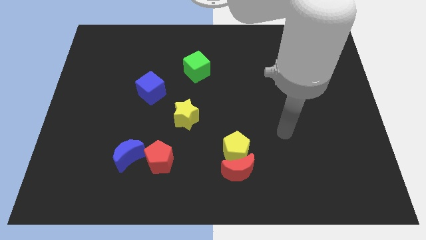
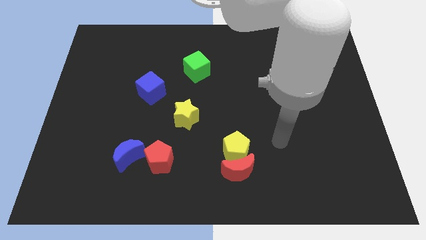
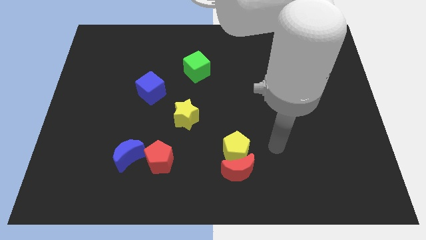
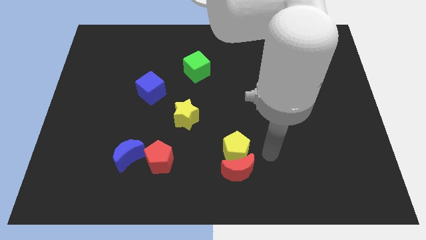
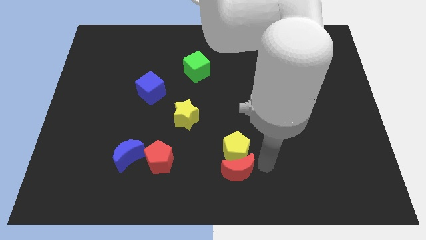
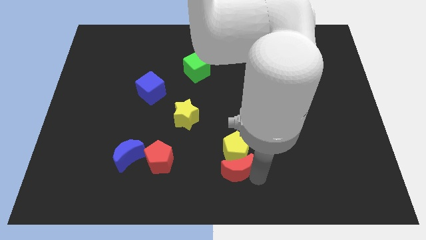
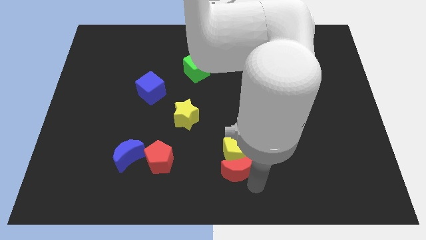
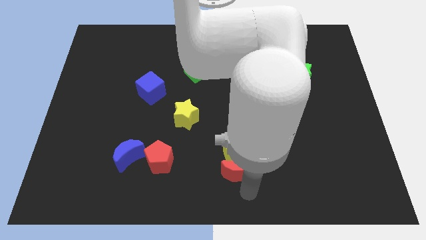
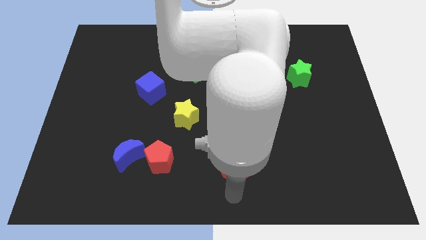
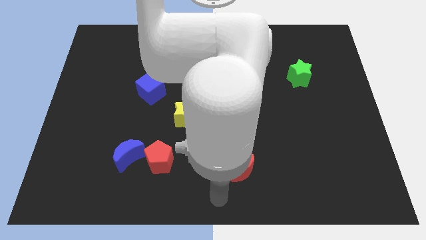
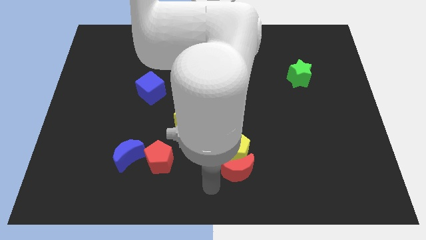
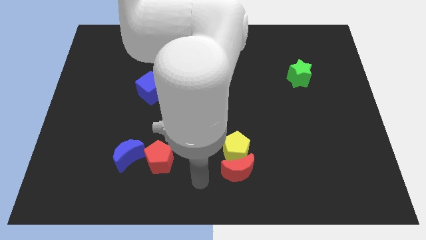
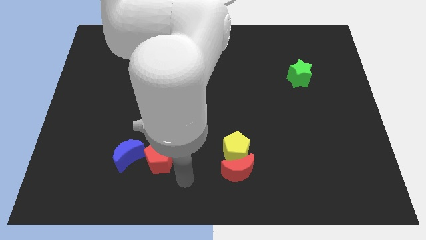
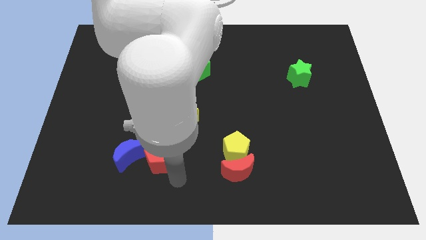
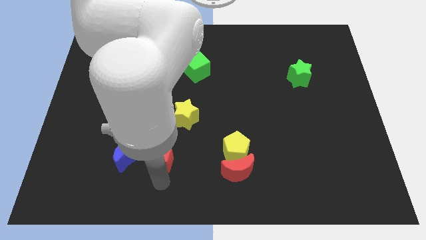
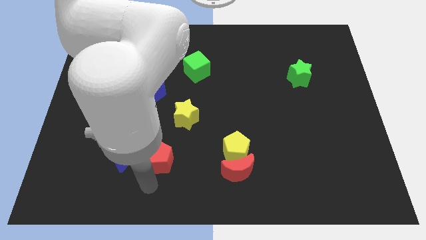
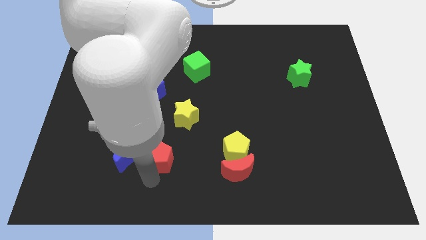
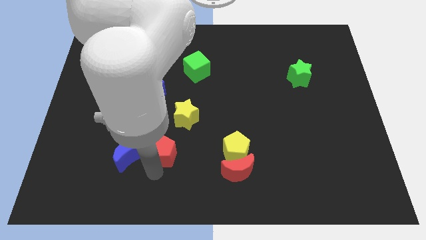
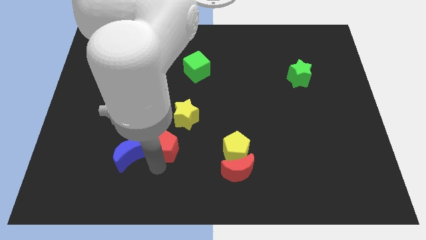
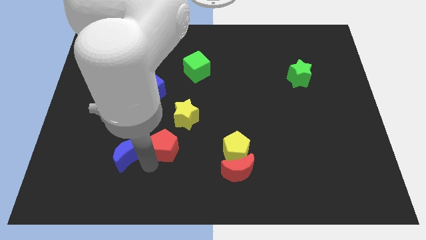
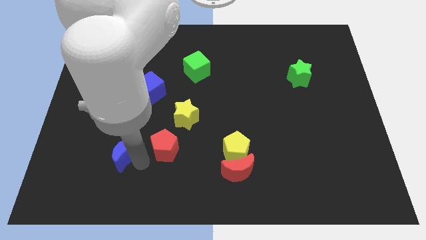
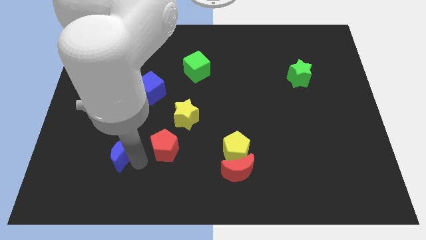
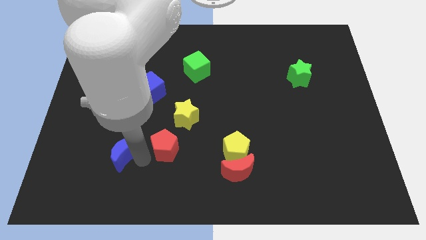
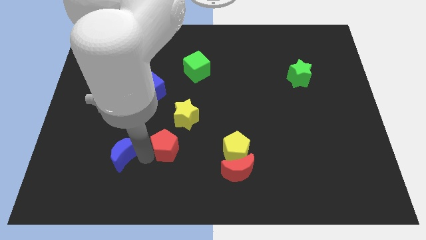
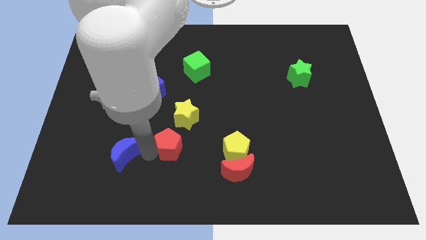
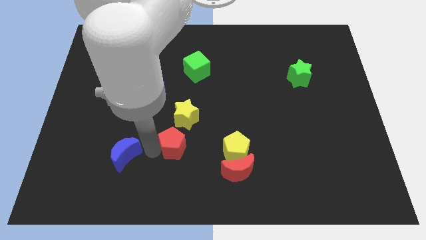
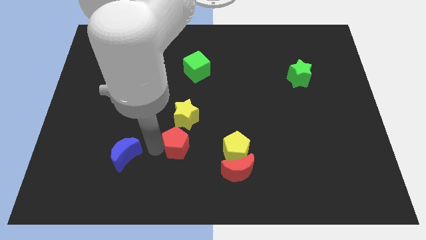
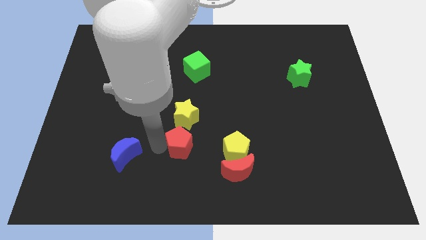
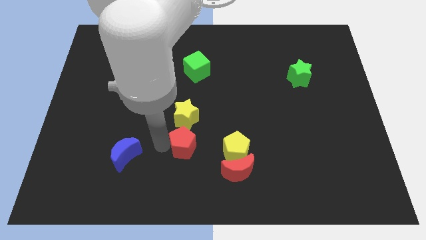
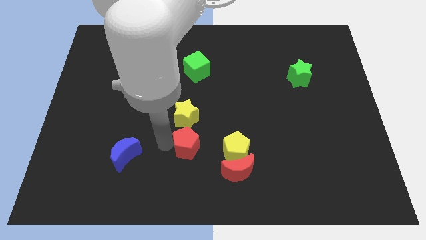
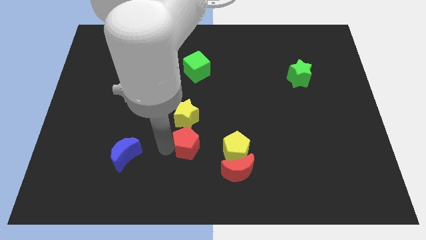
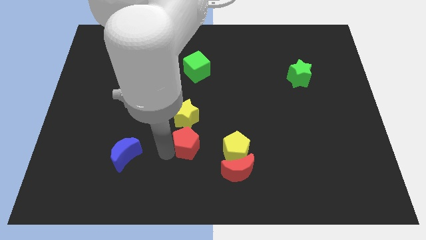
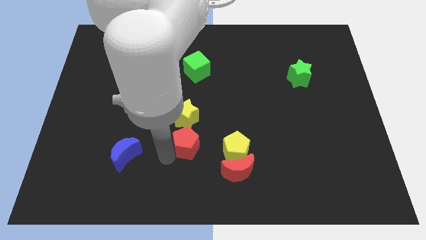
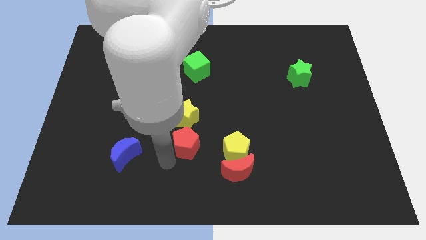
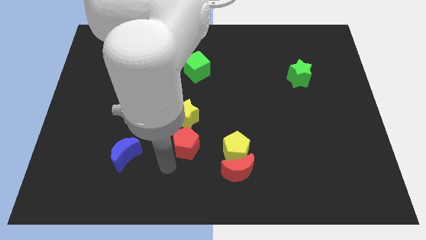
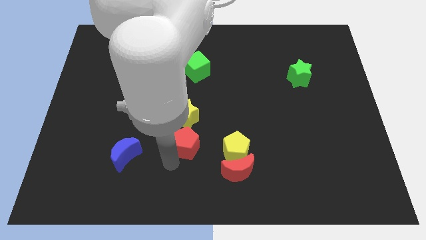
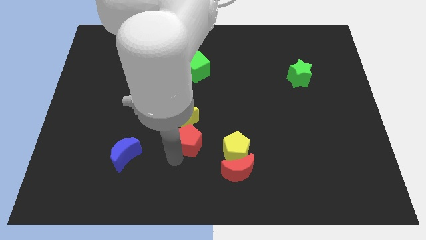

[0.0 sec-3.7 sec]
push the red pentagon up and then to the right a little

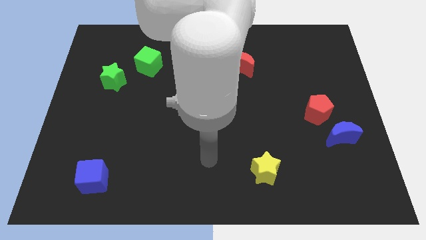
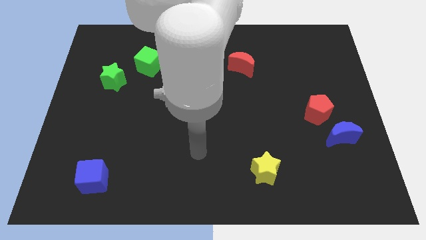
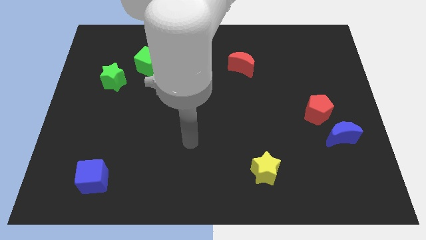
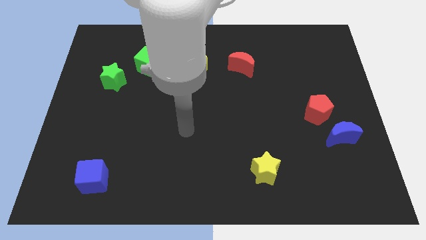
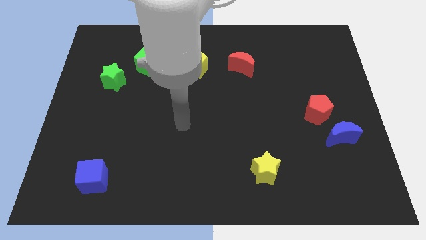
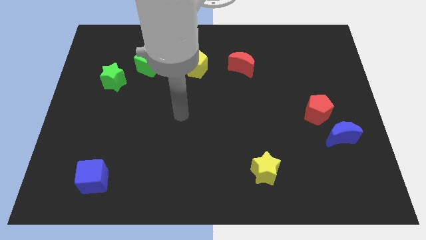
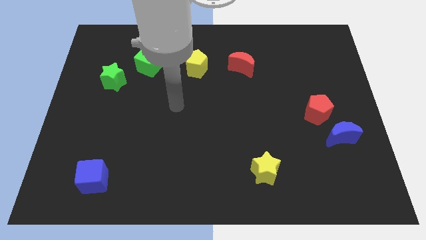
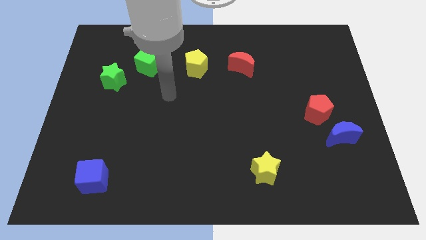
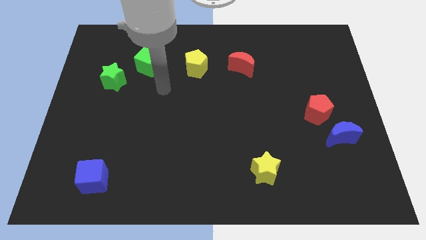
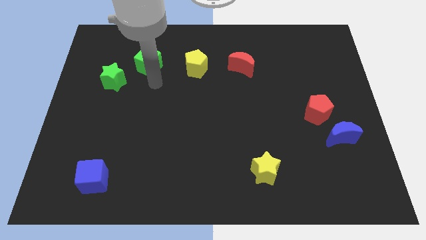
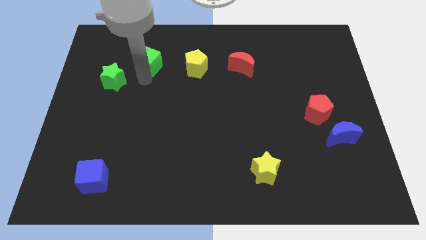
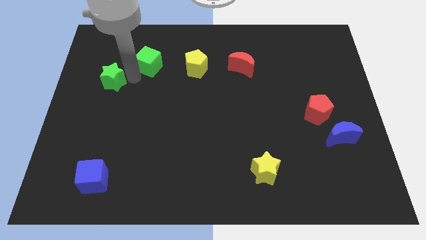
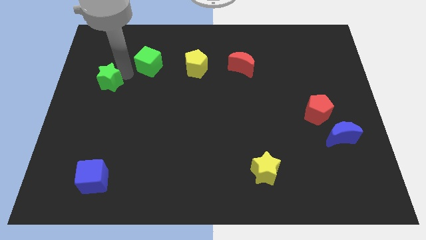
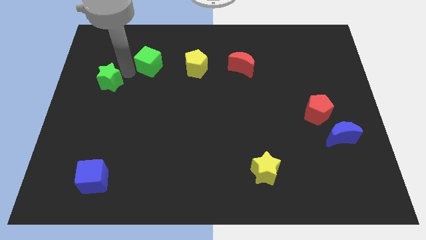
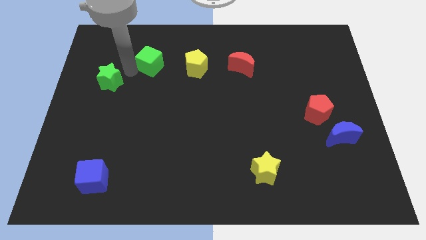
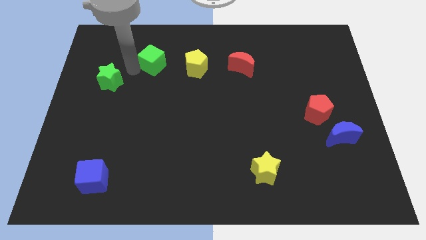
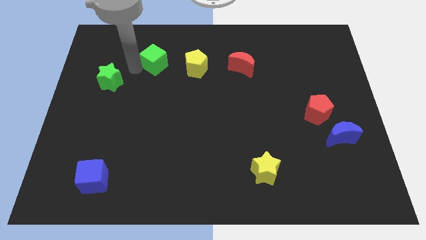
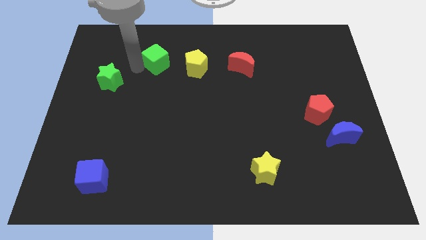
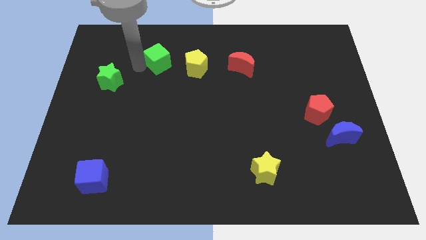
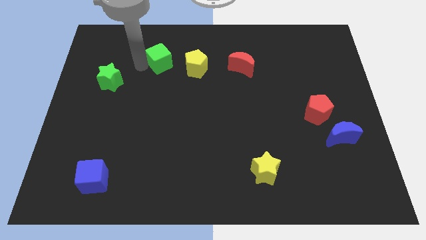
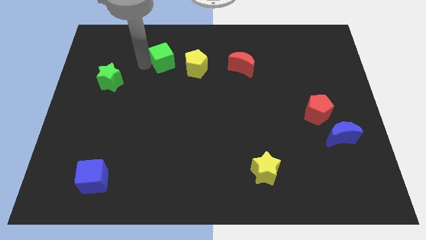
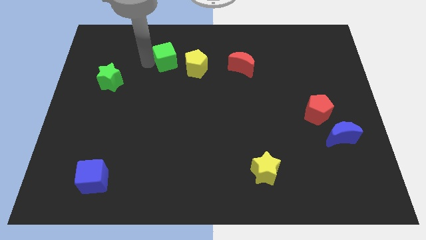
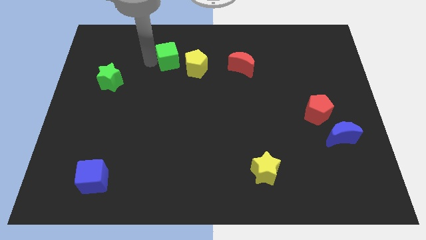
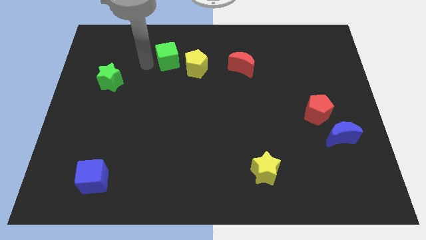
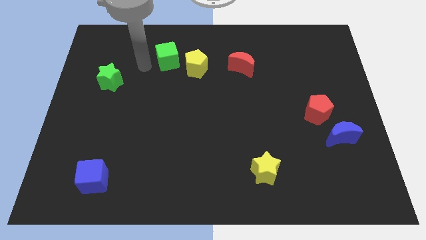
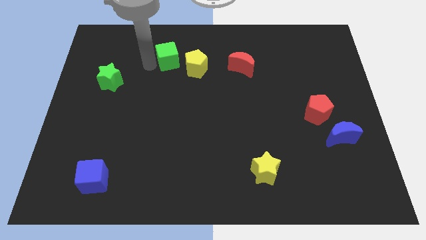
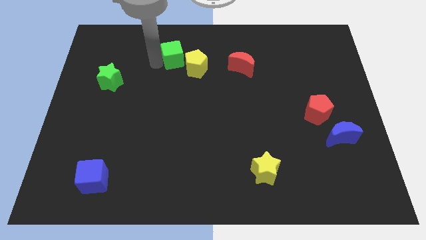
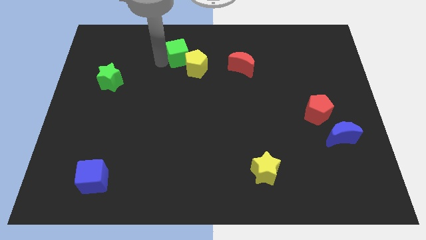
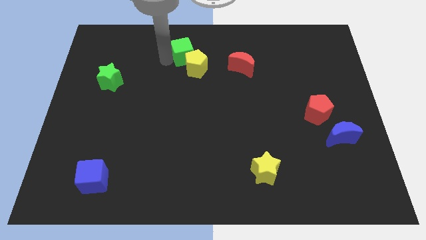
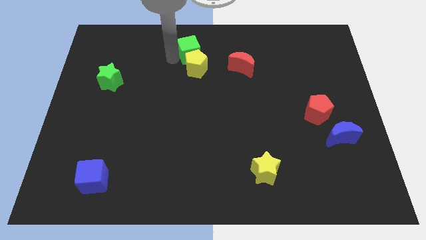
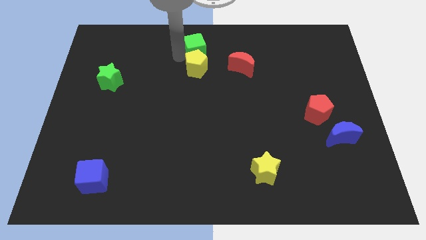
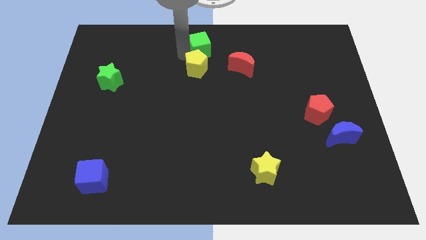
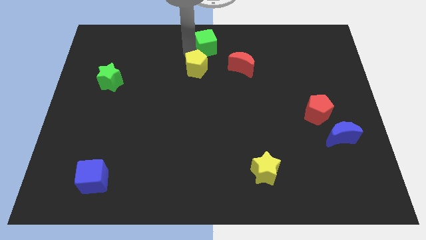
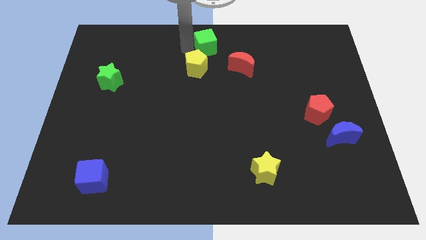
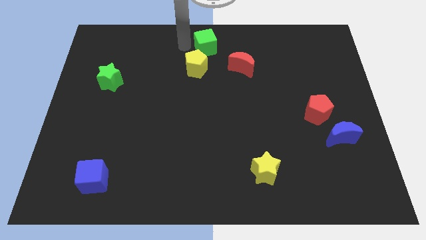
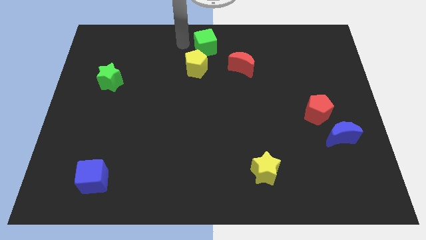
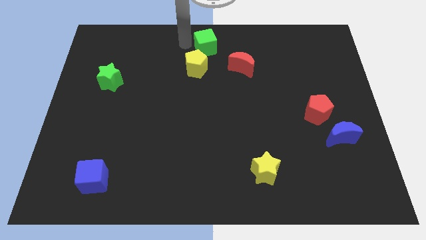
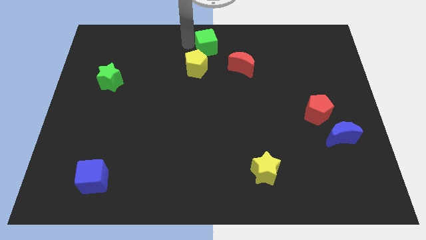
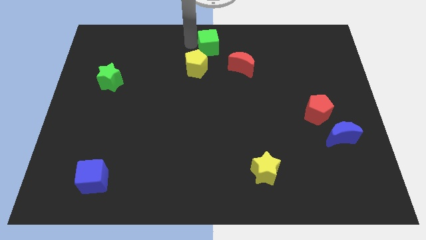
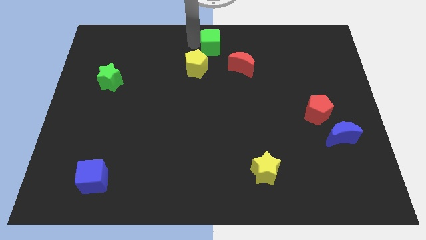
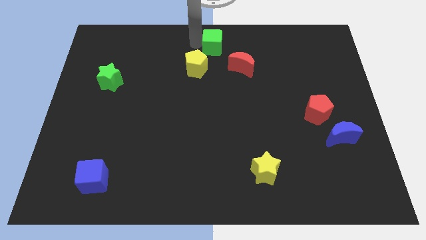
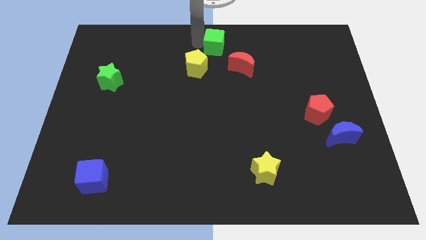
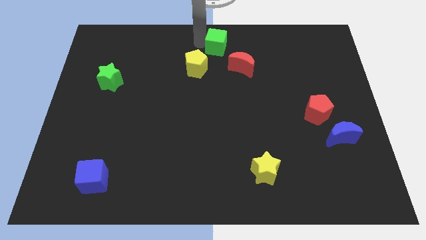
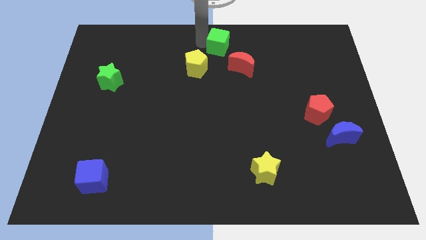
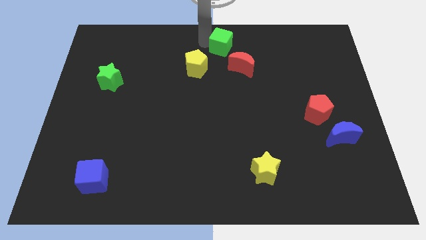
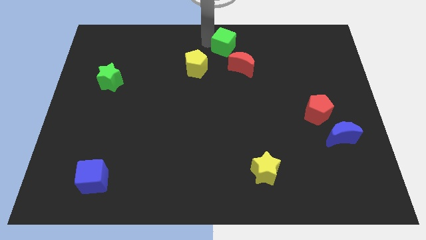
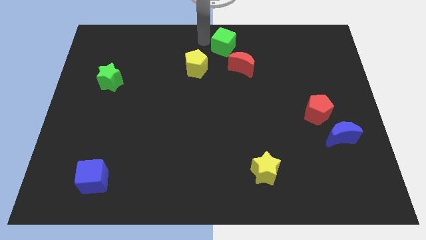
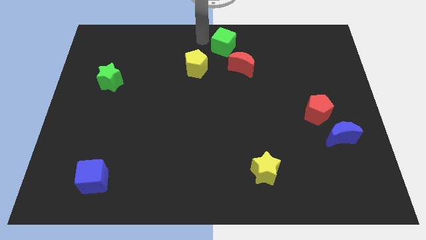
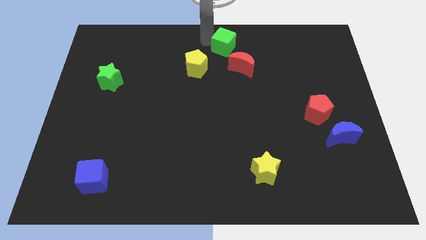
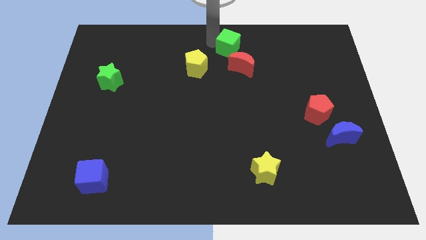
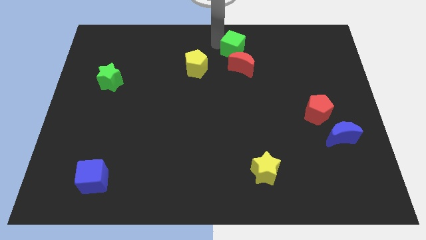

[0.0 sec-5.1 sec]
slide the green cube right
